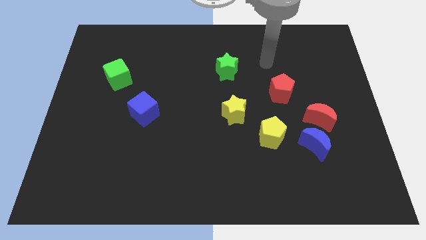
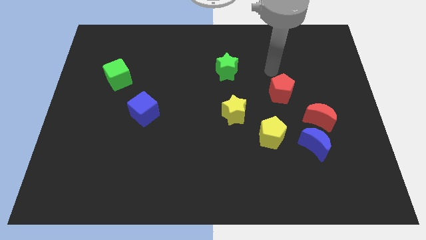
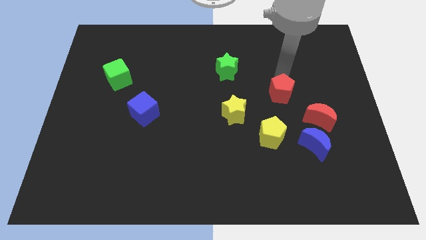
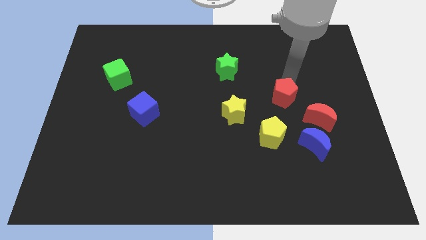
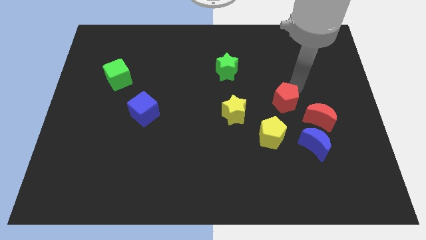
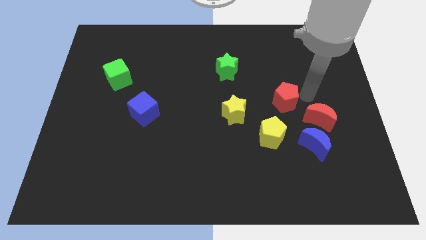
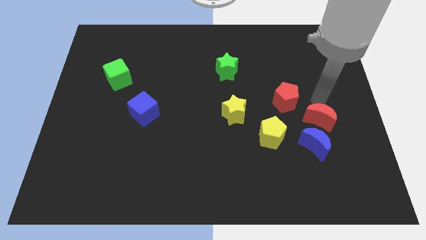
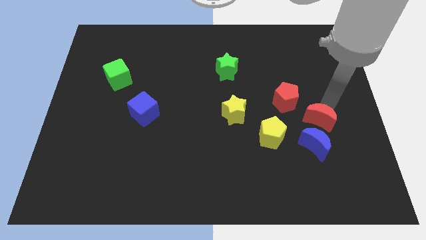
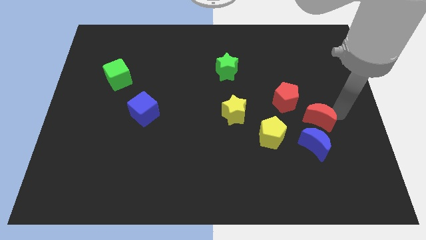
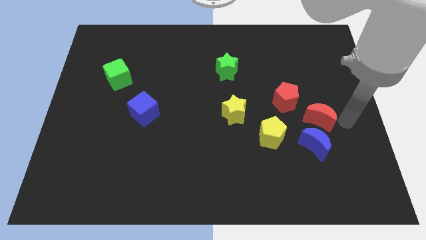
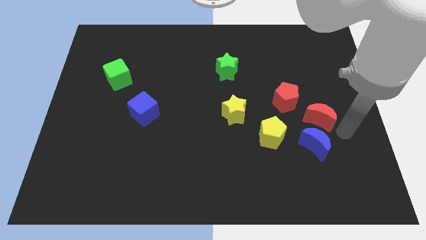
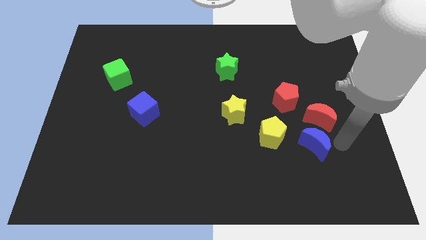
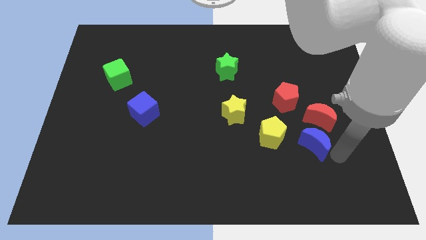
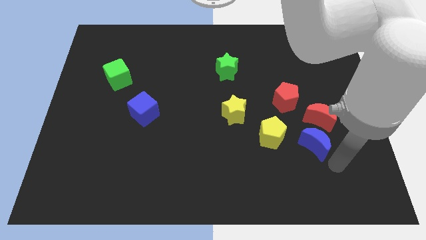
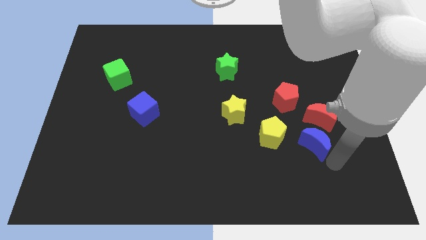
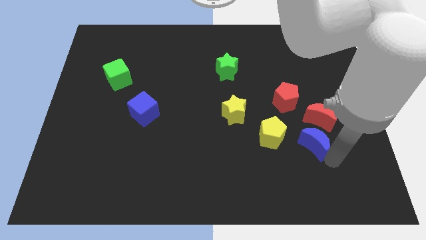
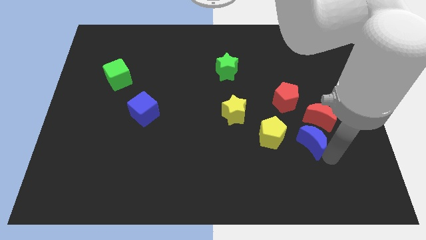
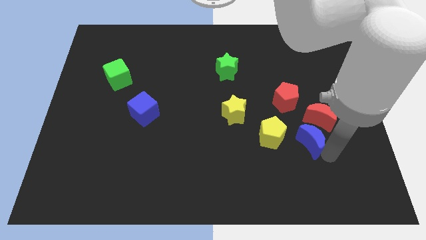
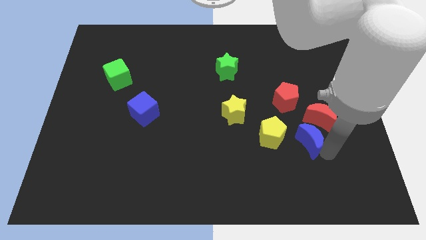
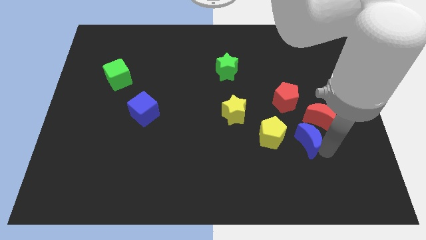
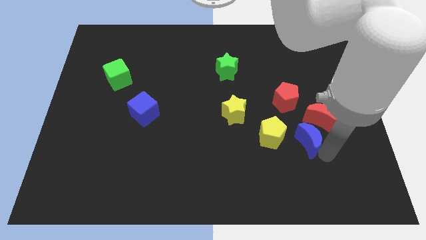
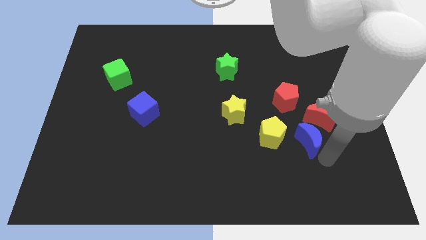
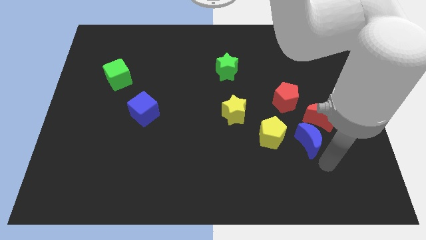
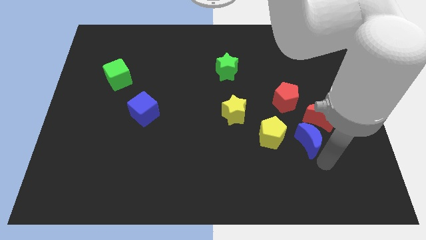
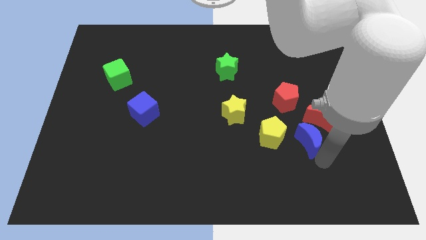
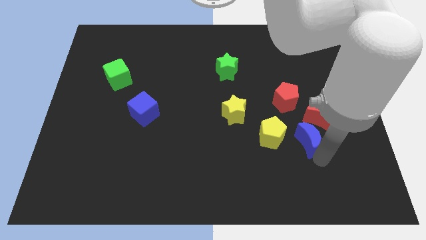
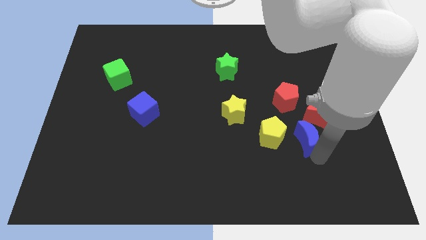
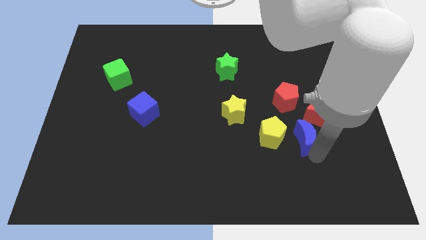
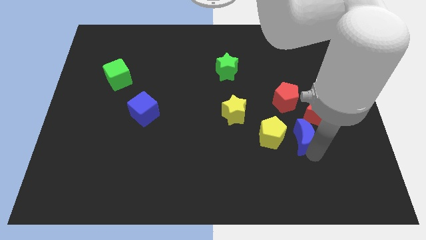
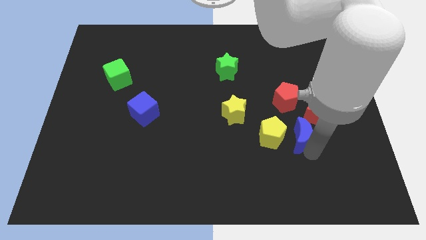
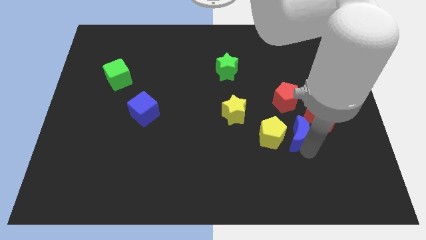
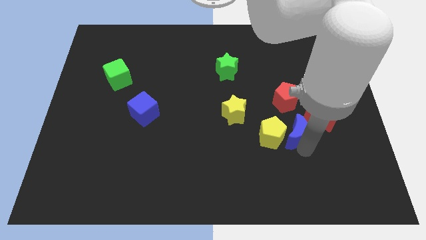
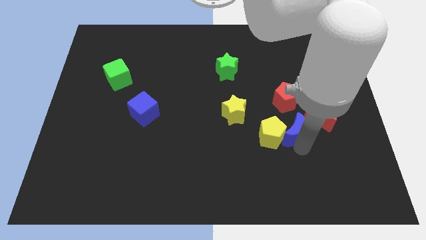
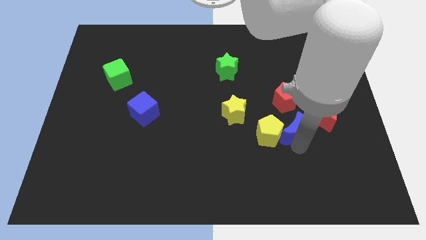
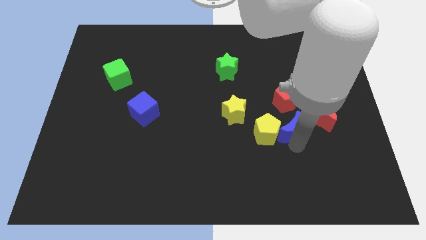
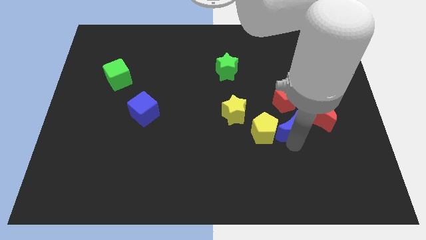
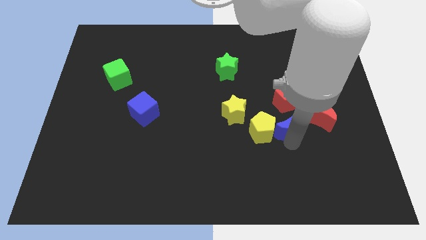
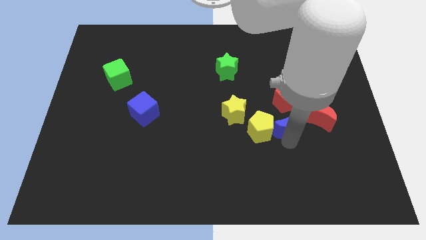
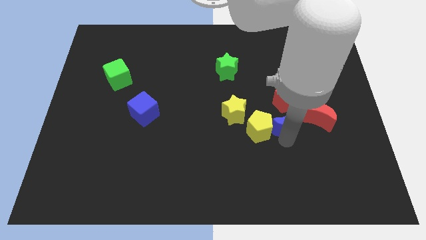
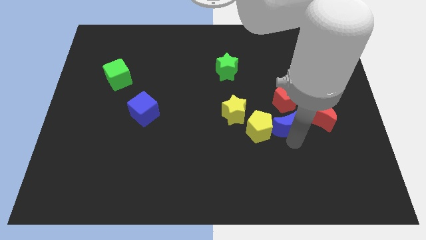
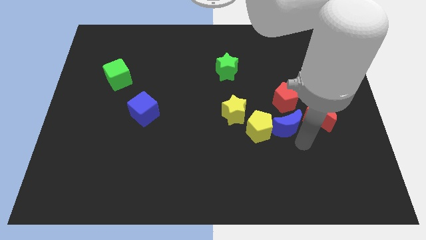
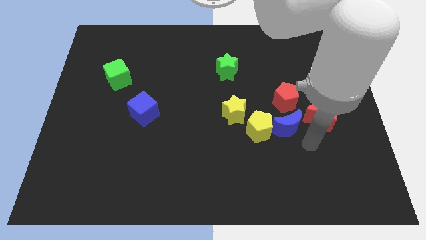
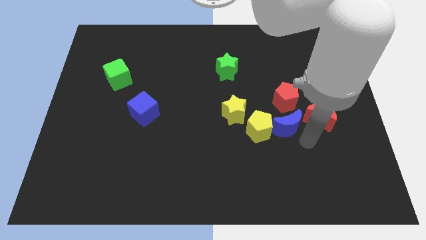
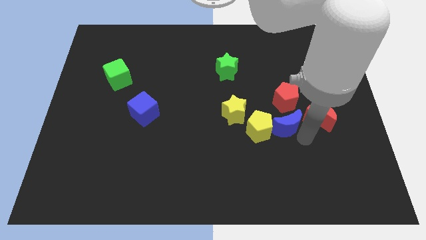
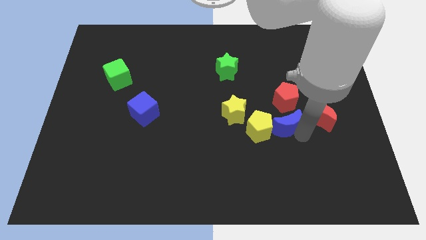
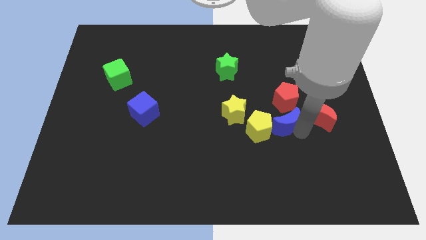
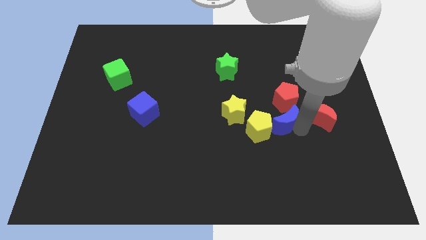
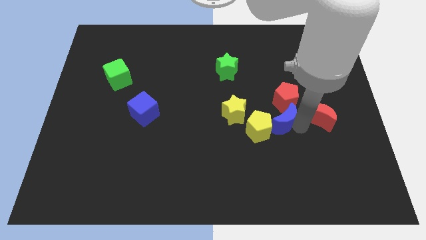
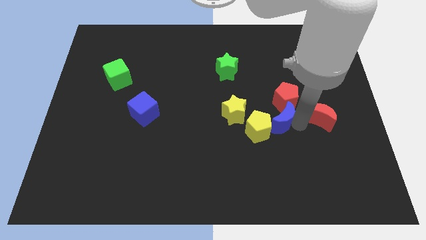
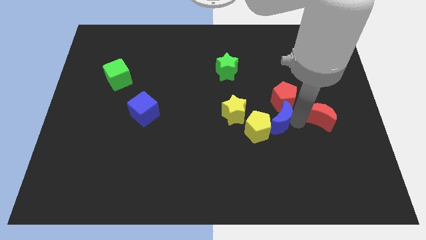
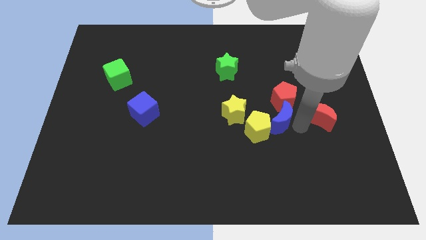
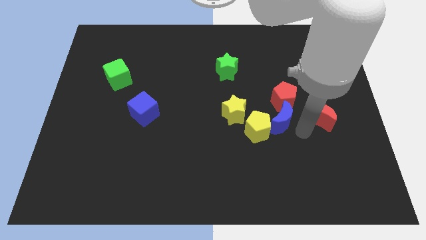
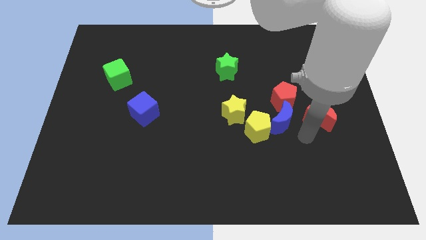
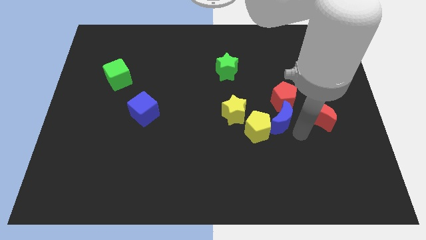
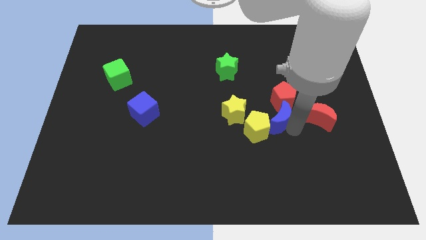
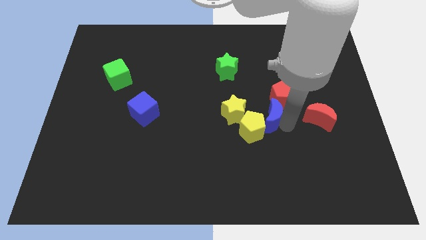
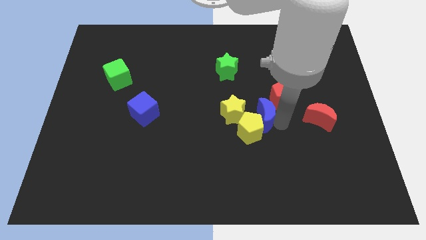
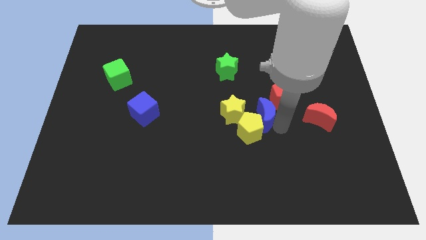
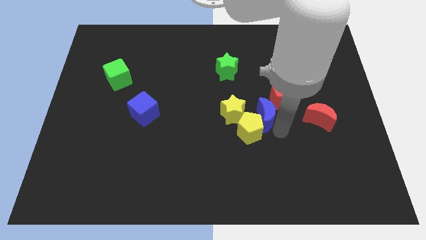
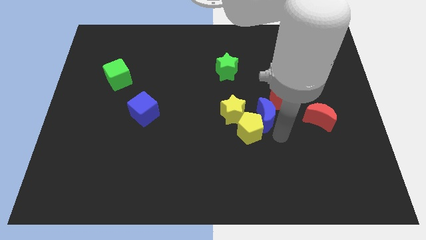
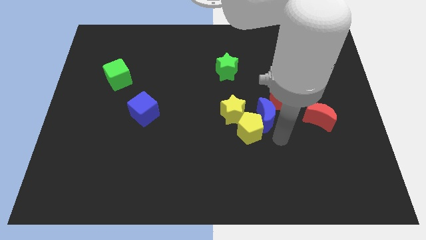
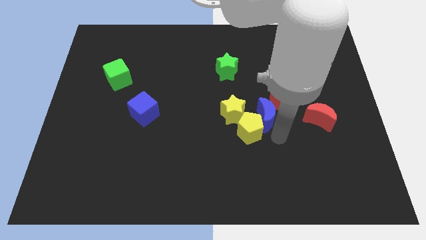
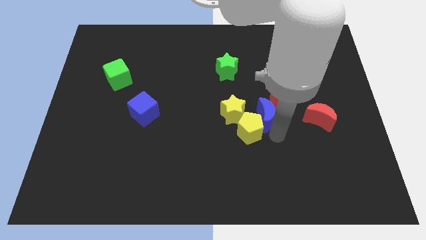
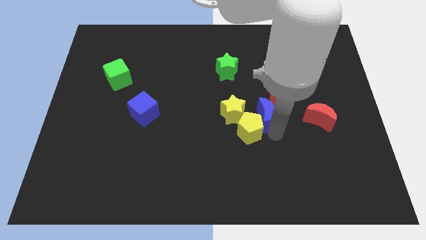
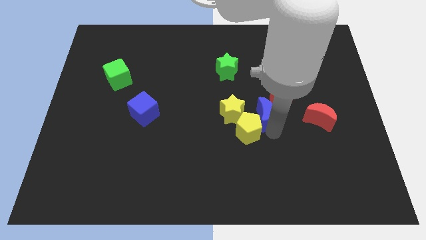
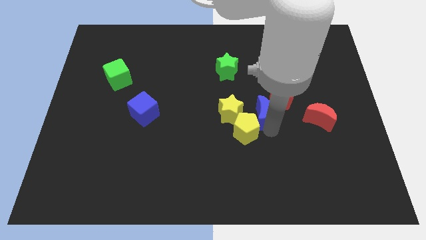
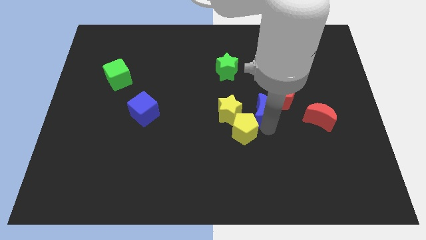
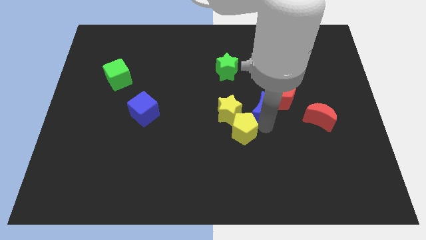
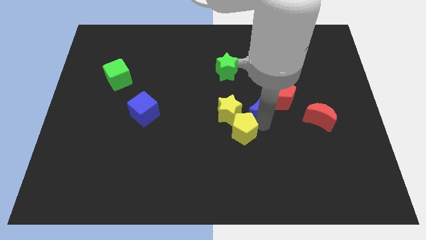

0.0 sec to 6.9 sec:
slide the blue moon to the top right of the yellow star

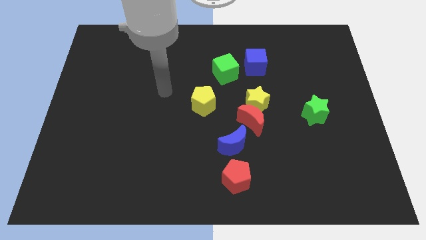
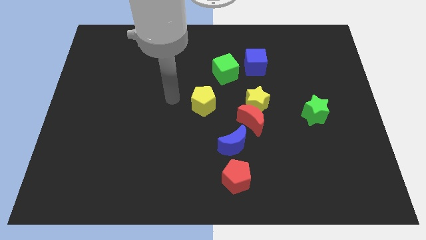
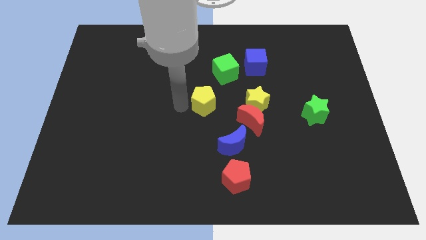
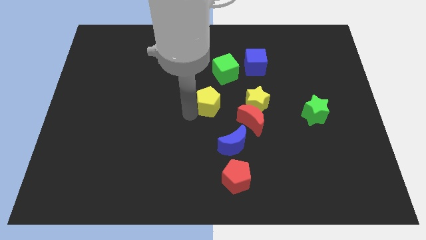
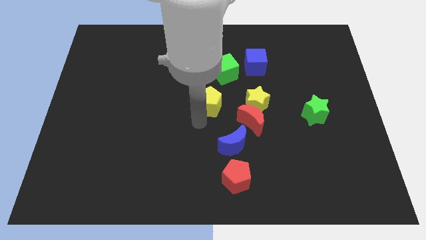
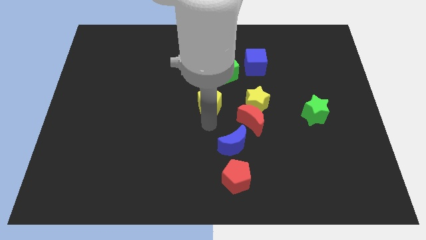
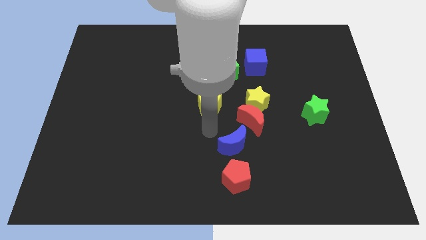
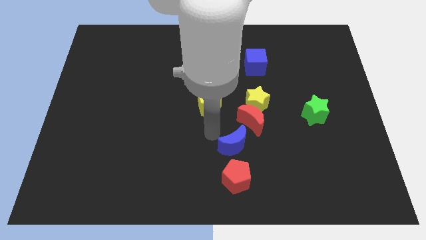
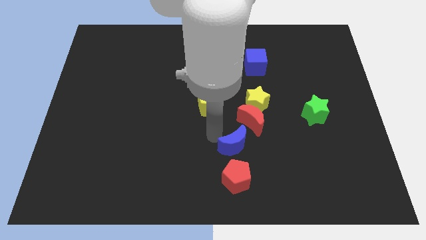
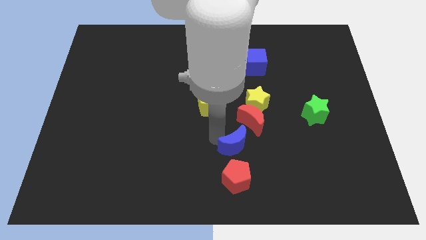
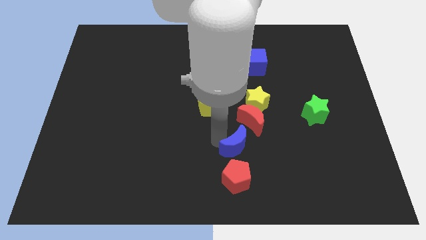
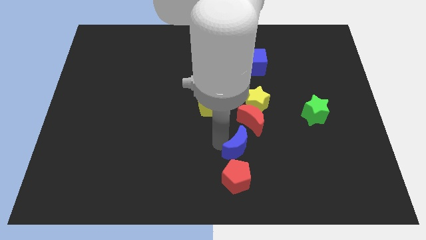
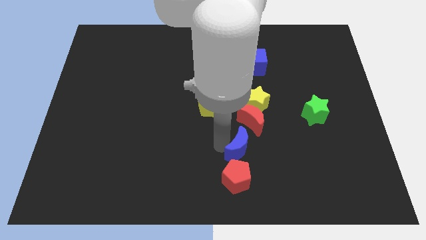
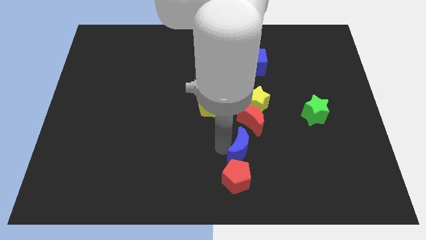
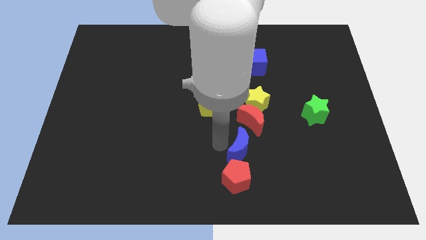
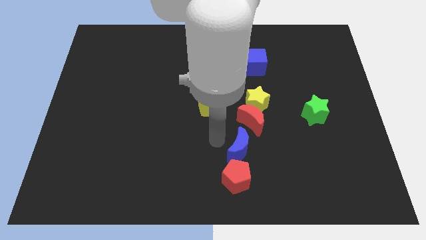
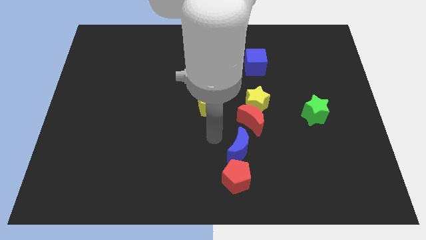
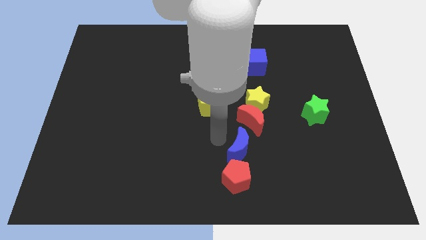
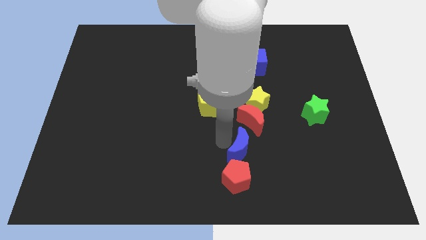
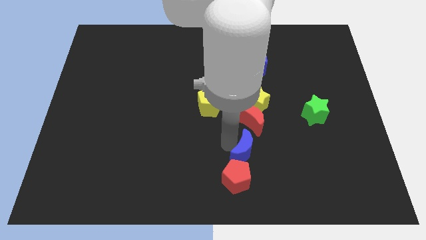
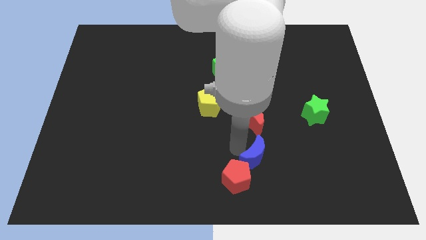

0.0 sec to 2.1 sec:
slide the blue moon to the right side of the red pentagon
